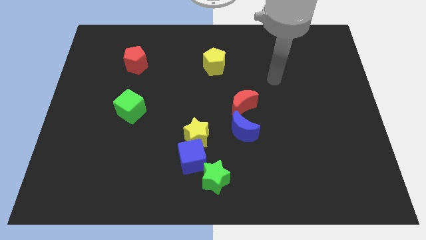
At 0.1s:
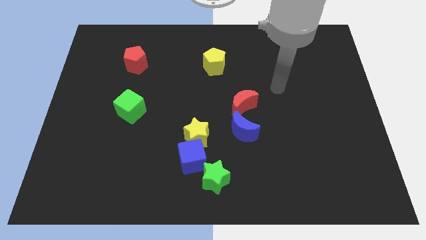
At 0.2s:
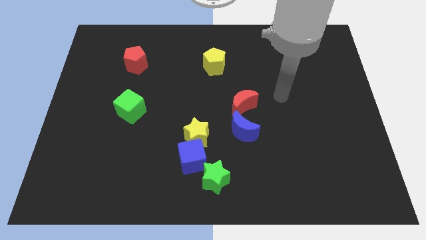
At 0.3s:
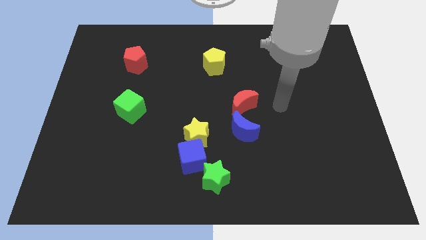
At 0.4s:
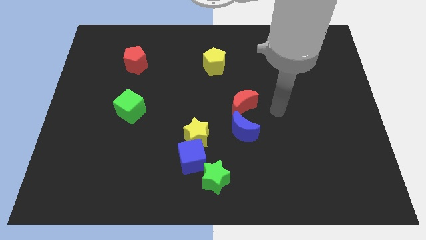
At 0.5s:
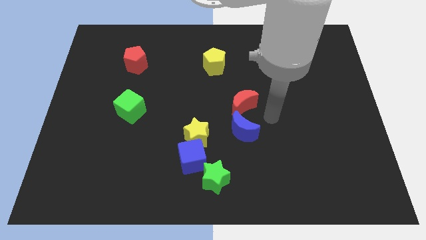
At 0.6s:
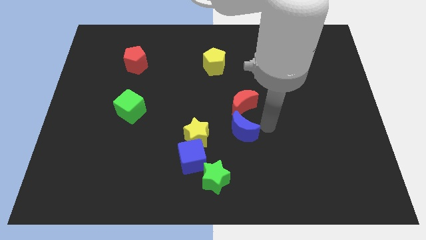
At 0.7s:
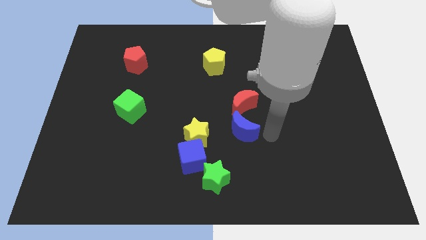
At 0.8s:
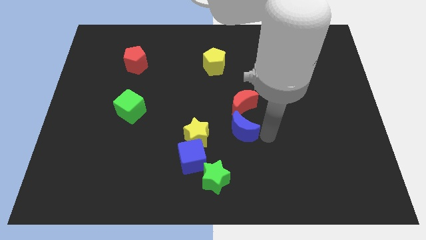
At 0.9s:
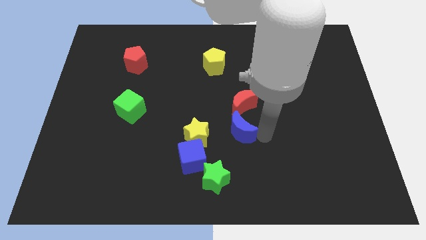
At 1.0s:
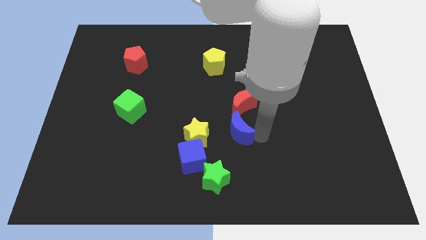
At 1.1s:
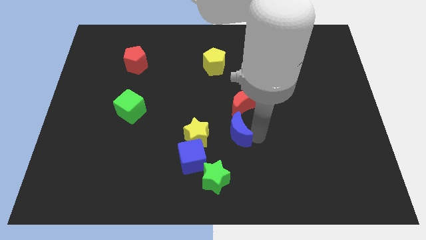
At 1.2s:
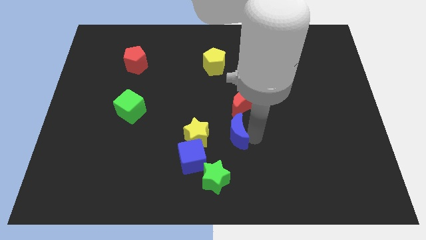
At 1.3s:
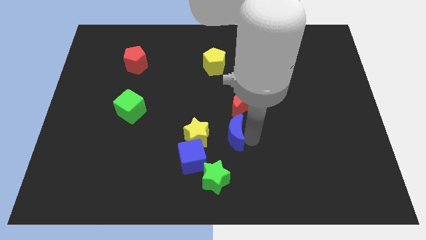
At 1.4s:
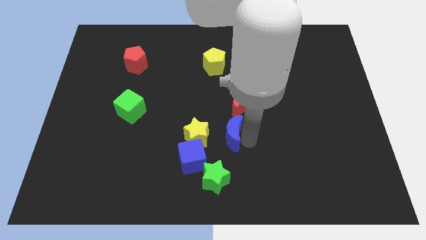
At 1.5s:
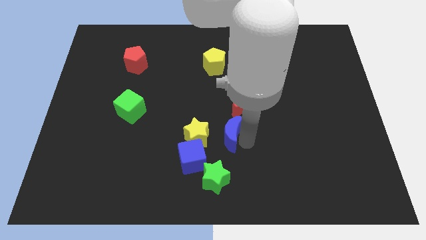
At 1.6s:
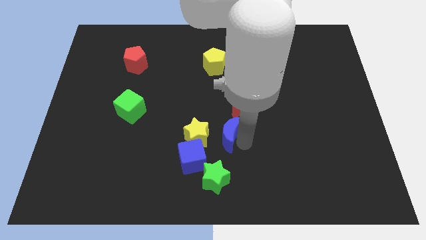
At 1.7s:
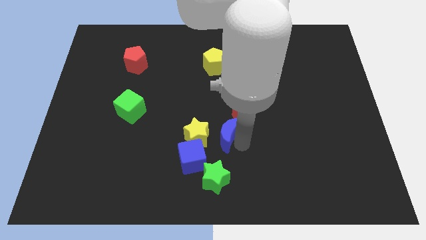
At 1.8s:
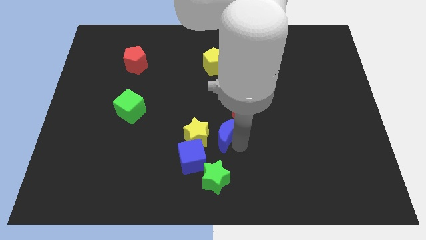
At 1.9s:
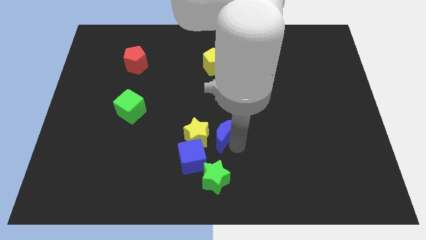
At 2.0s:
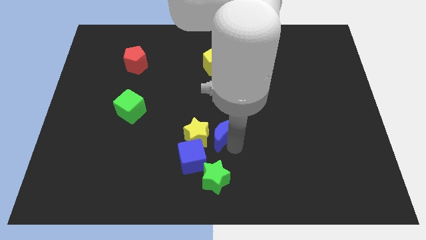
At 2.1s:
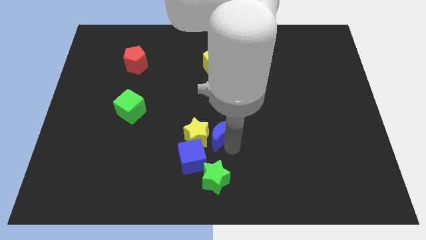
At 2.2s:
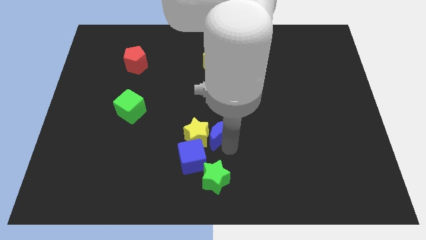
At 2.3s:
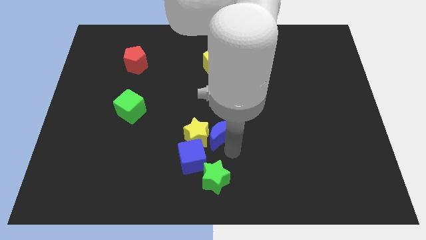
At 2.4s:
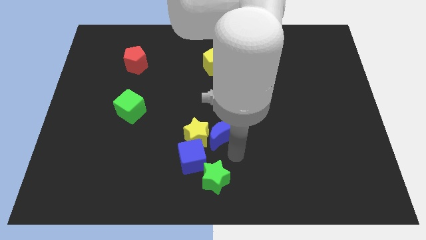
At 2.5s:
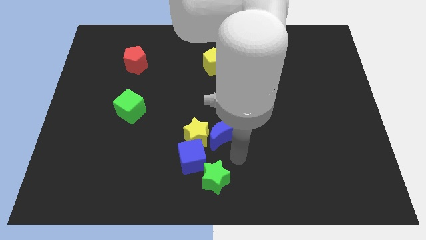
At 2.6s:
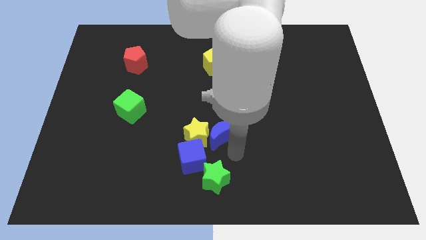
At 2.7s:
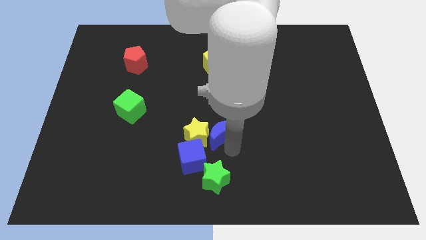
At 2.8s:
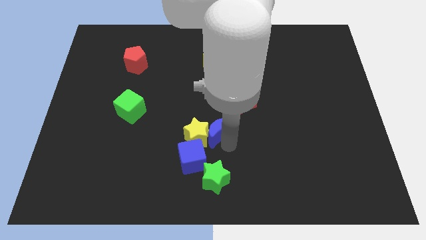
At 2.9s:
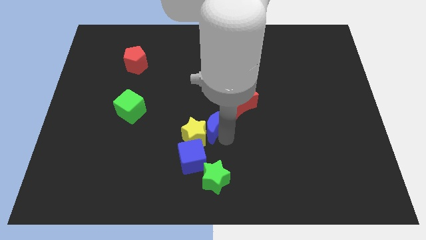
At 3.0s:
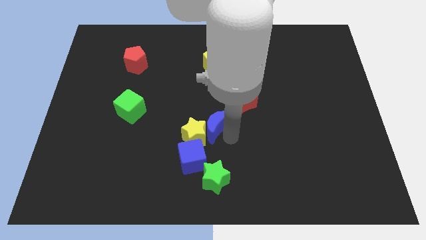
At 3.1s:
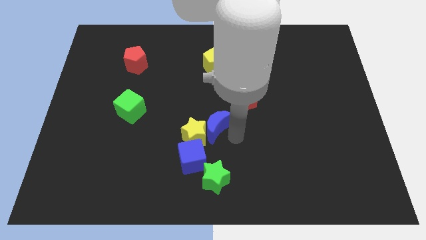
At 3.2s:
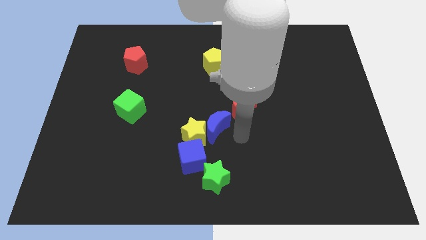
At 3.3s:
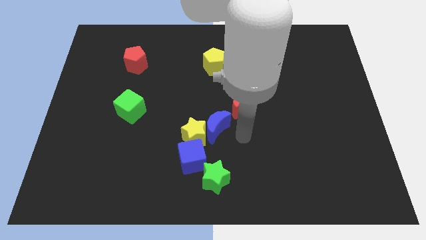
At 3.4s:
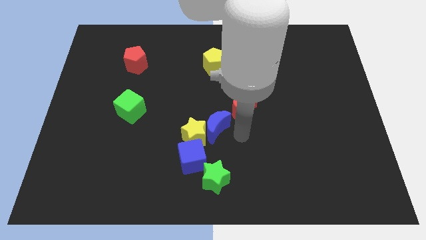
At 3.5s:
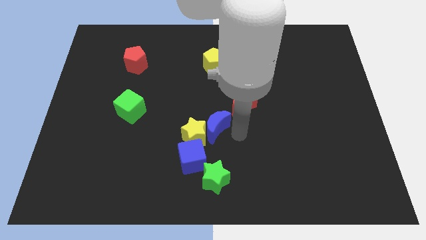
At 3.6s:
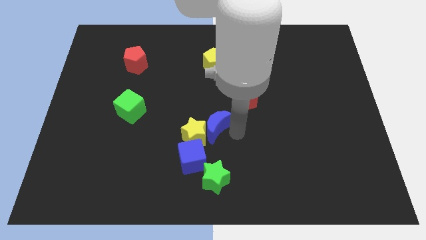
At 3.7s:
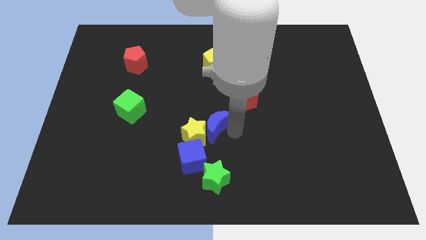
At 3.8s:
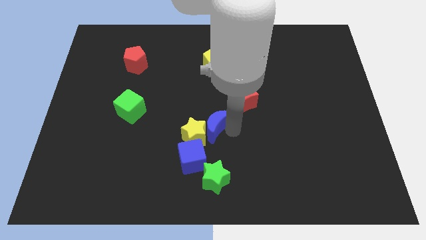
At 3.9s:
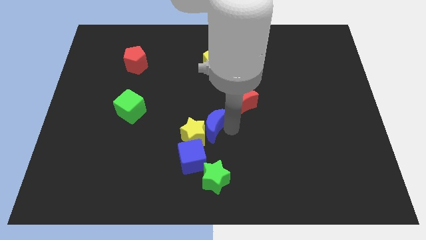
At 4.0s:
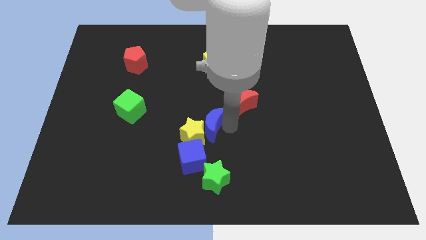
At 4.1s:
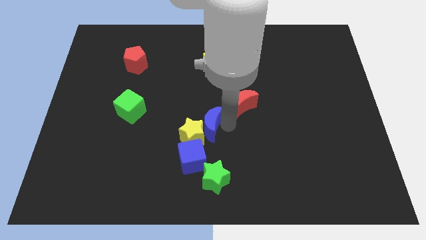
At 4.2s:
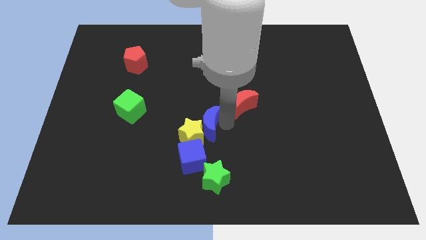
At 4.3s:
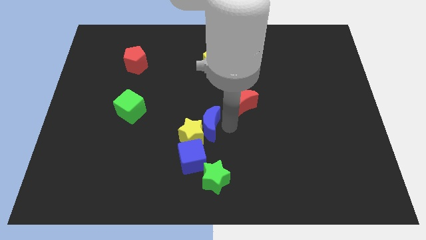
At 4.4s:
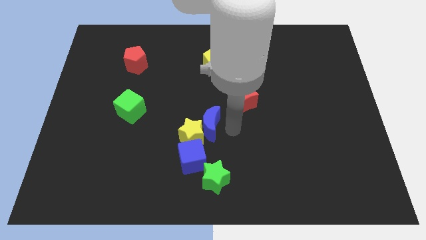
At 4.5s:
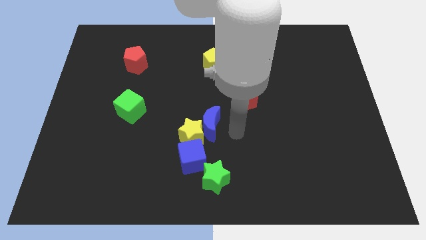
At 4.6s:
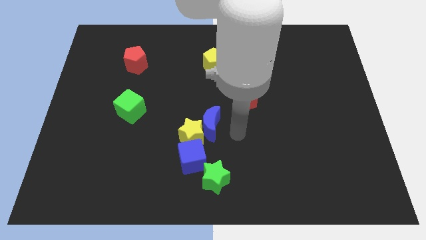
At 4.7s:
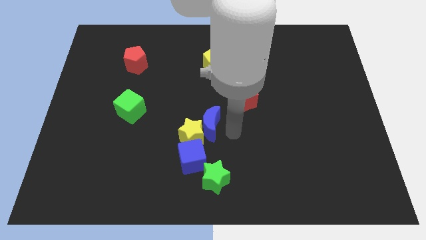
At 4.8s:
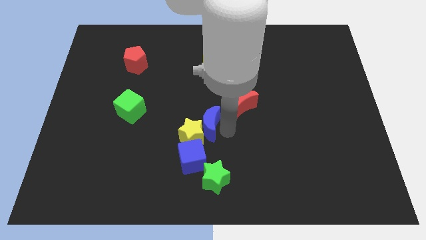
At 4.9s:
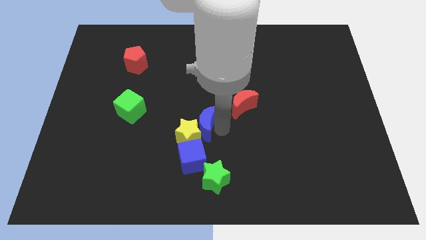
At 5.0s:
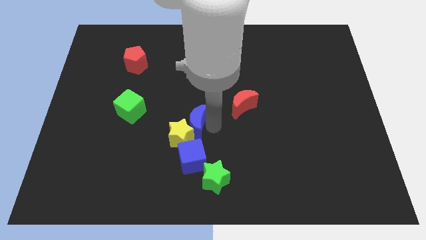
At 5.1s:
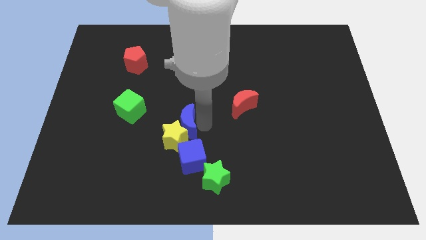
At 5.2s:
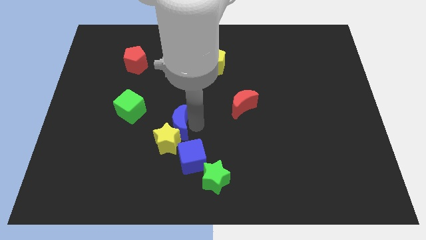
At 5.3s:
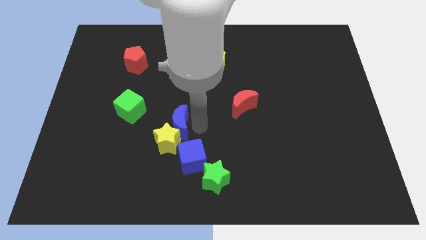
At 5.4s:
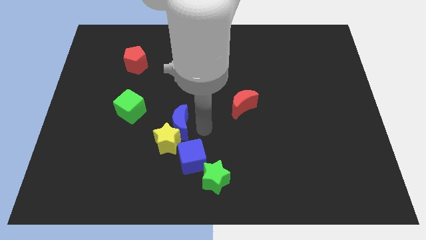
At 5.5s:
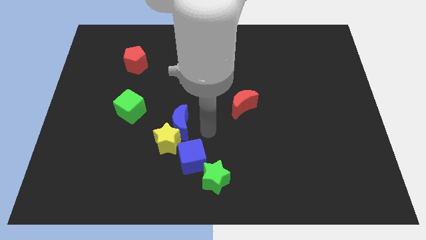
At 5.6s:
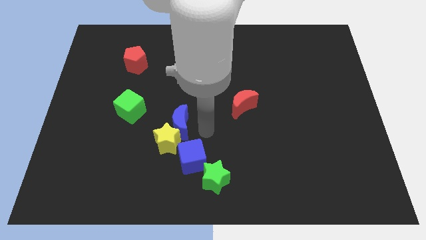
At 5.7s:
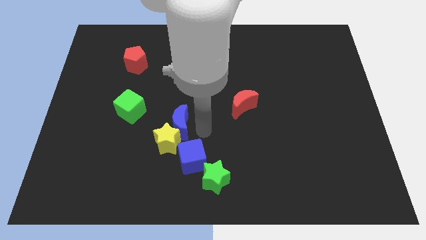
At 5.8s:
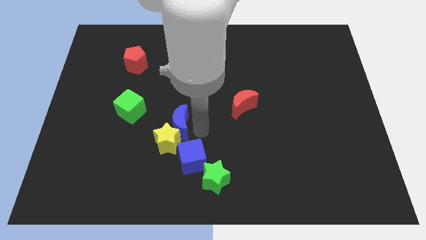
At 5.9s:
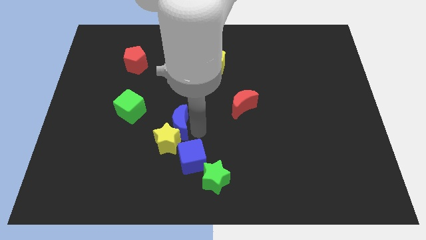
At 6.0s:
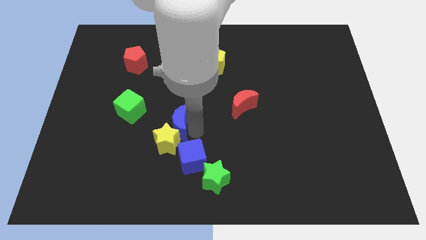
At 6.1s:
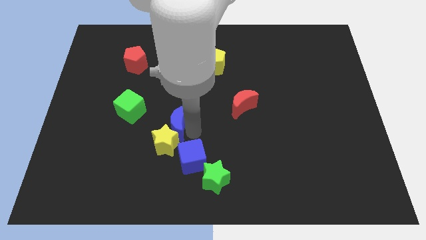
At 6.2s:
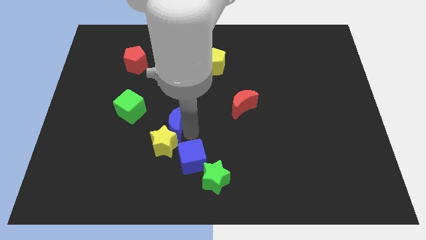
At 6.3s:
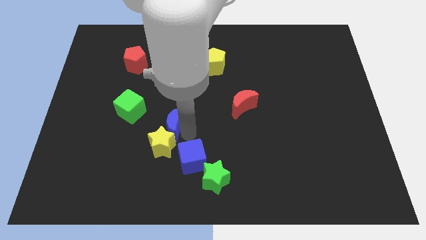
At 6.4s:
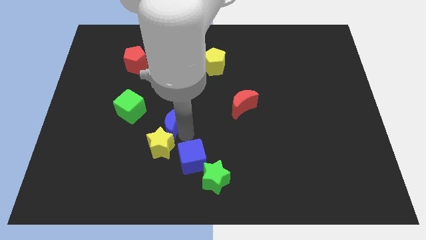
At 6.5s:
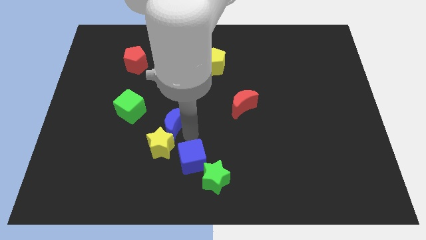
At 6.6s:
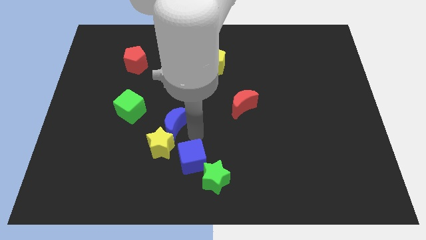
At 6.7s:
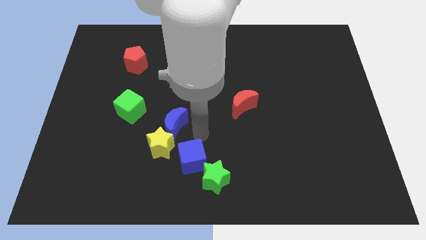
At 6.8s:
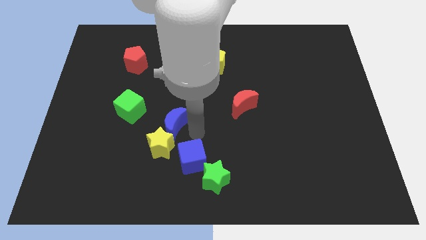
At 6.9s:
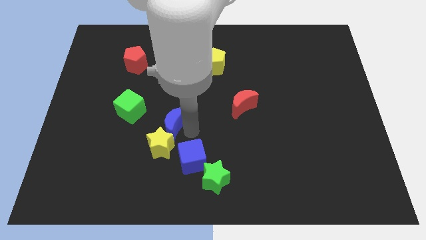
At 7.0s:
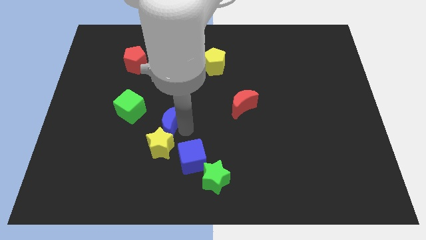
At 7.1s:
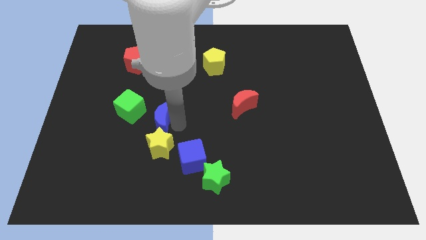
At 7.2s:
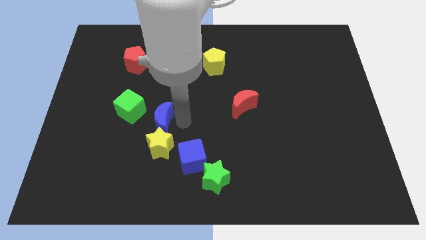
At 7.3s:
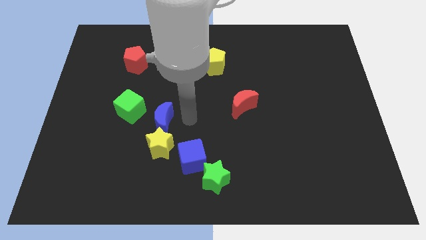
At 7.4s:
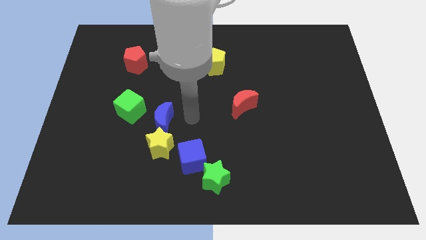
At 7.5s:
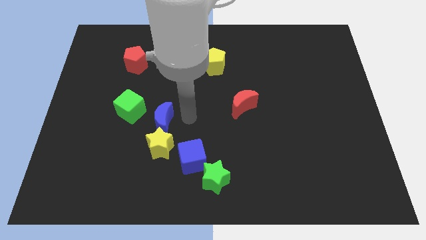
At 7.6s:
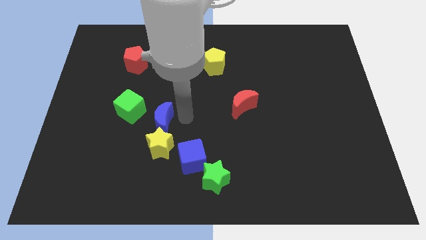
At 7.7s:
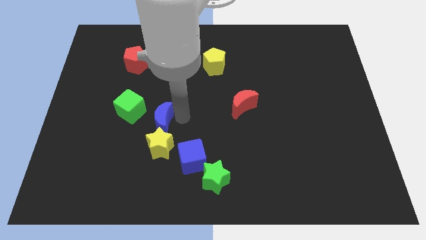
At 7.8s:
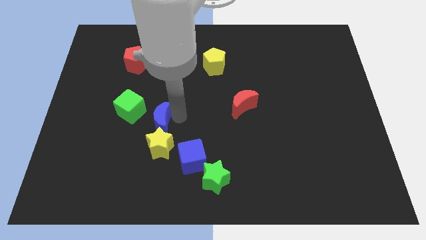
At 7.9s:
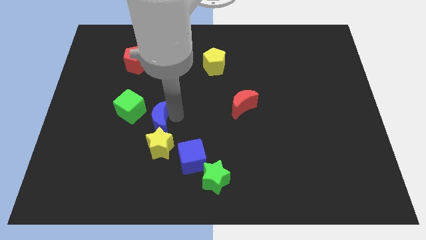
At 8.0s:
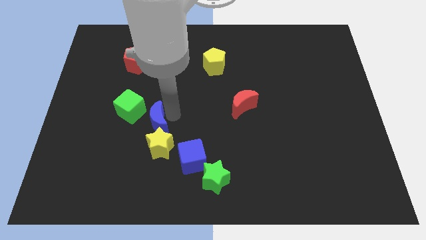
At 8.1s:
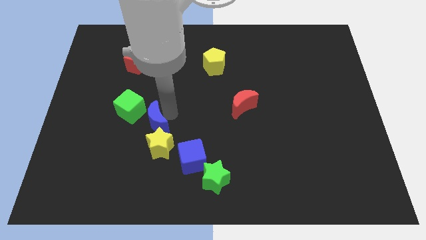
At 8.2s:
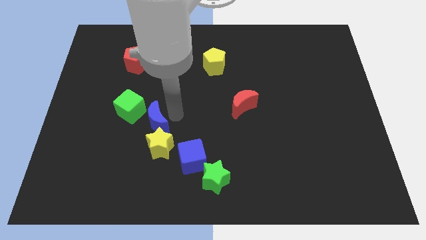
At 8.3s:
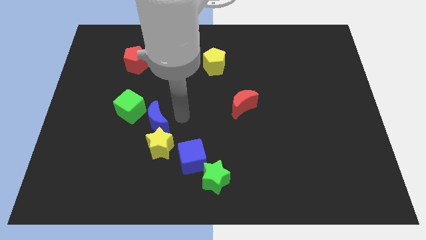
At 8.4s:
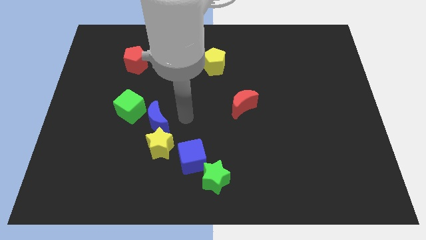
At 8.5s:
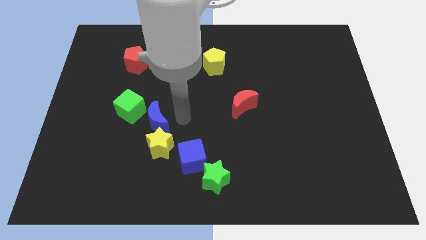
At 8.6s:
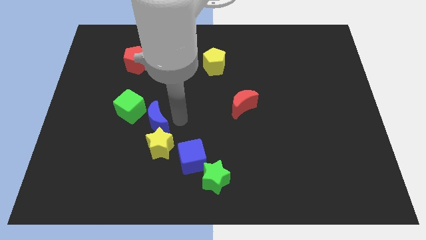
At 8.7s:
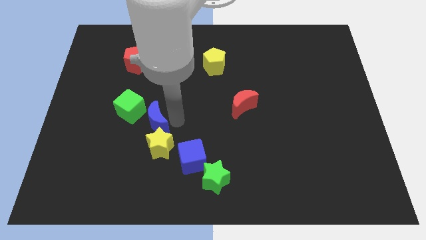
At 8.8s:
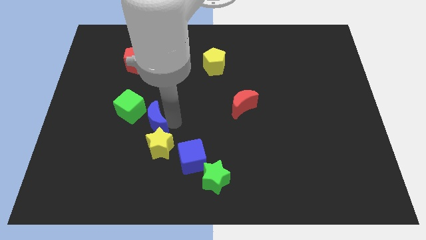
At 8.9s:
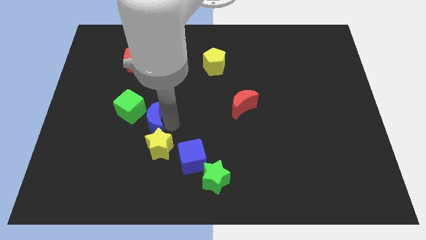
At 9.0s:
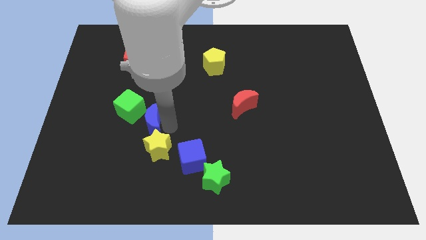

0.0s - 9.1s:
push the blue moon to the left
